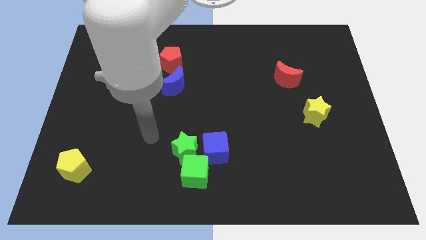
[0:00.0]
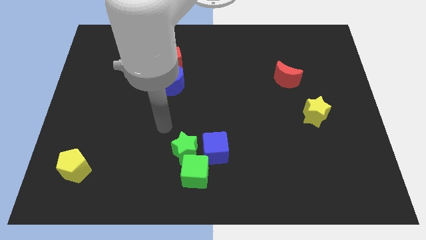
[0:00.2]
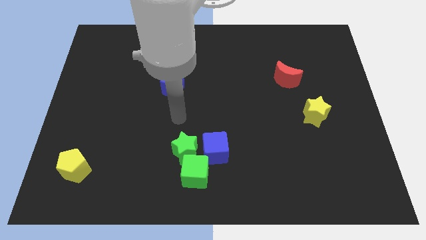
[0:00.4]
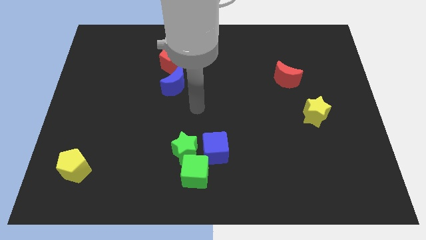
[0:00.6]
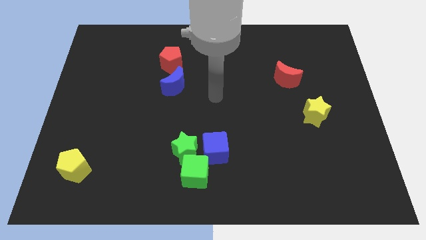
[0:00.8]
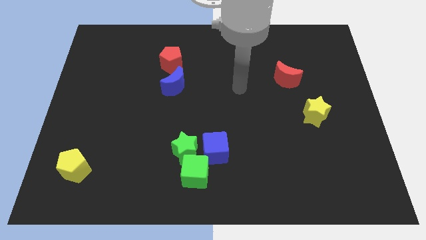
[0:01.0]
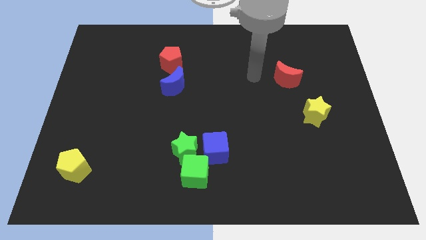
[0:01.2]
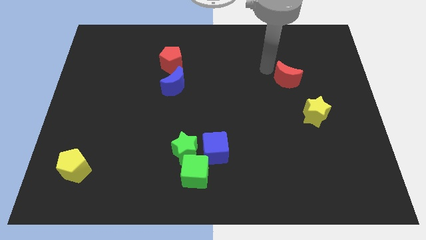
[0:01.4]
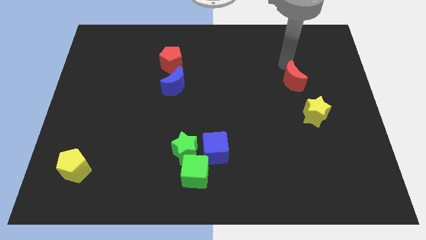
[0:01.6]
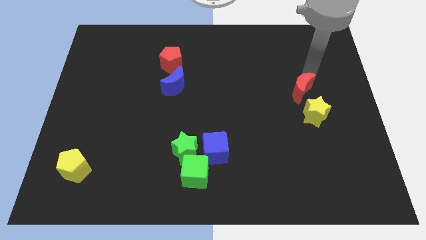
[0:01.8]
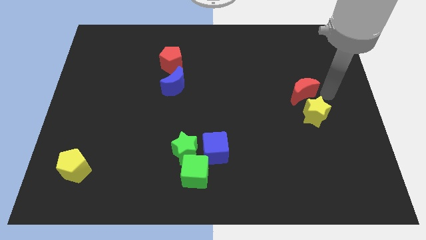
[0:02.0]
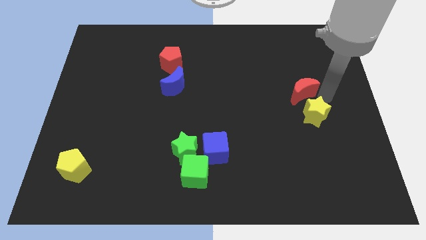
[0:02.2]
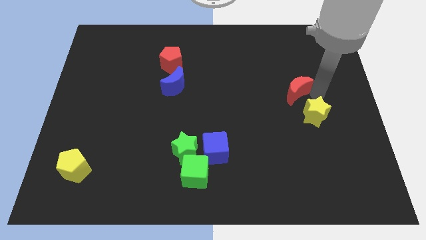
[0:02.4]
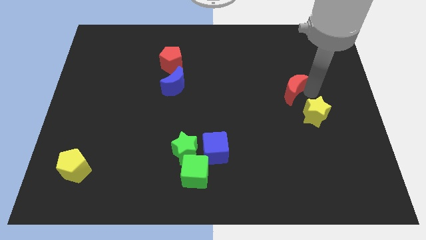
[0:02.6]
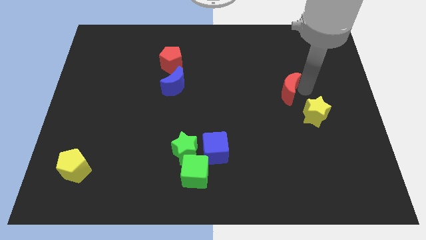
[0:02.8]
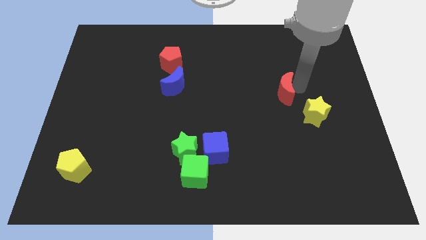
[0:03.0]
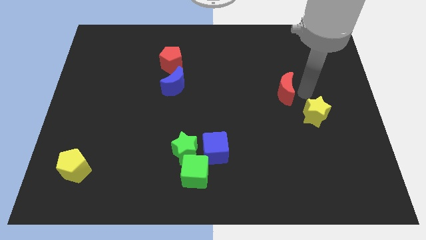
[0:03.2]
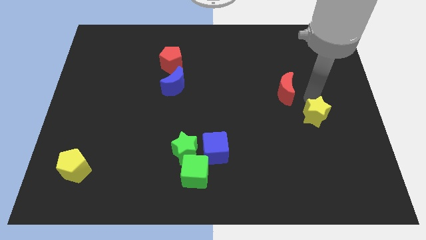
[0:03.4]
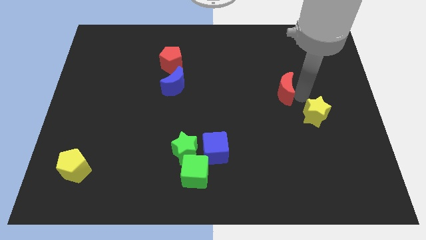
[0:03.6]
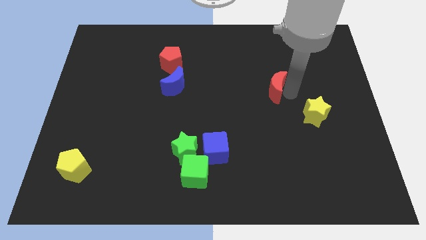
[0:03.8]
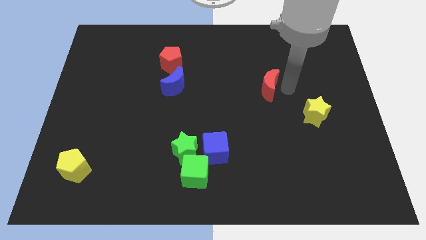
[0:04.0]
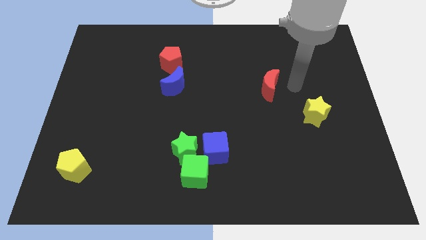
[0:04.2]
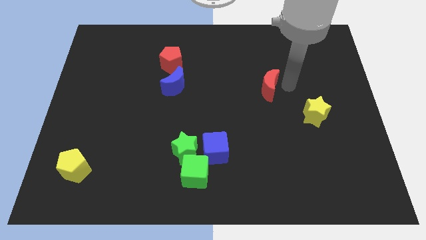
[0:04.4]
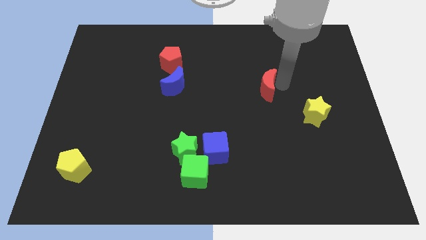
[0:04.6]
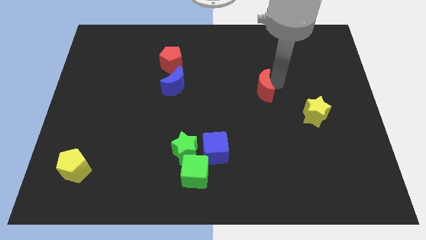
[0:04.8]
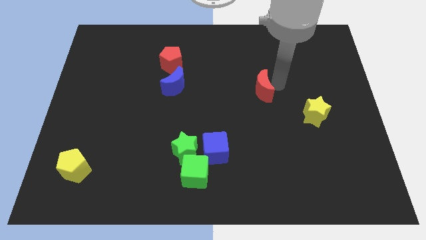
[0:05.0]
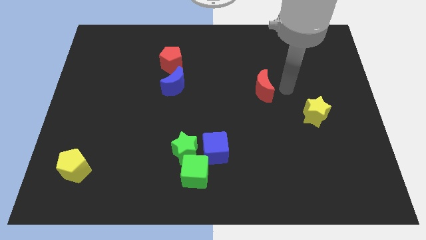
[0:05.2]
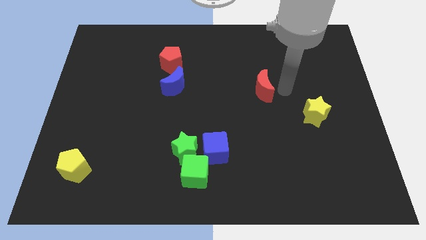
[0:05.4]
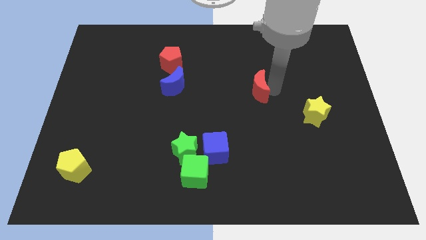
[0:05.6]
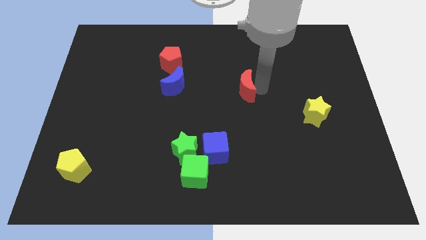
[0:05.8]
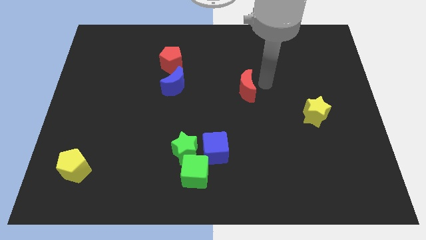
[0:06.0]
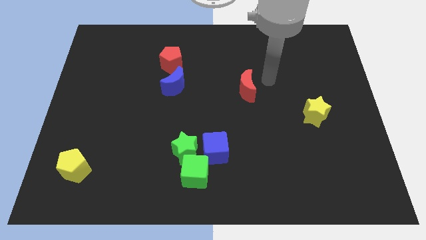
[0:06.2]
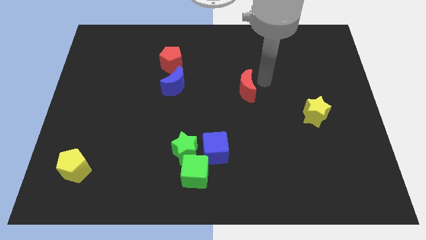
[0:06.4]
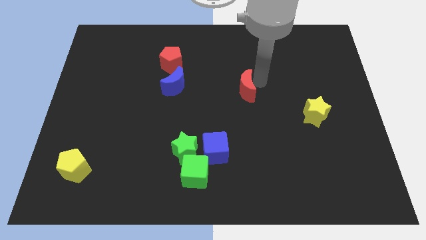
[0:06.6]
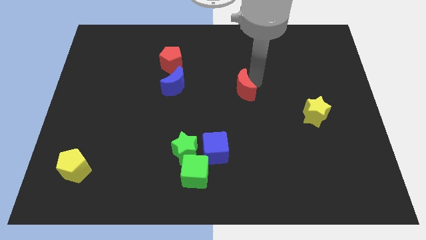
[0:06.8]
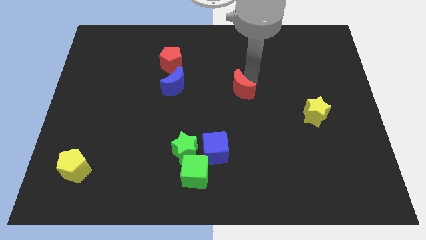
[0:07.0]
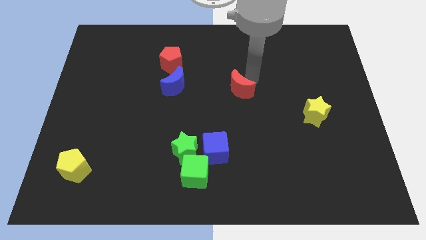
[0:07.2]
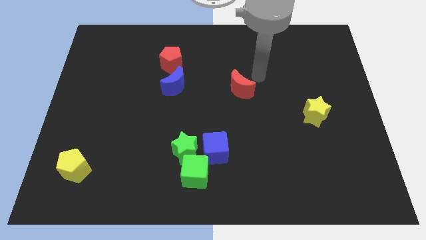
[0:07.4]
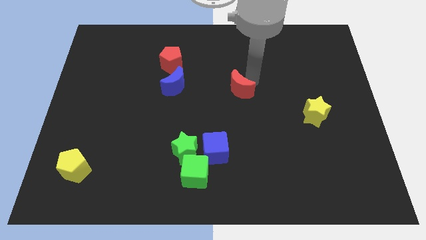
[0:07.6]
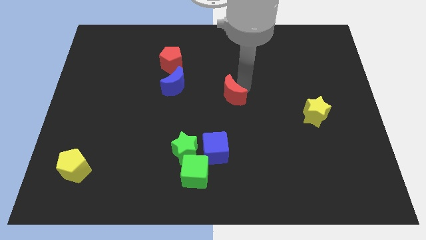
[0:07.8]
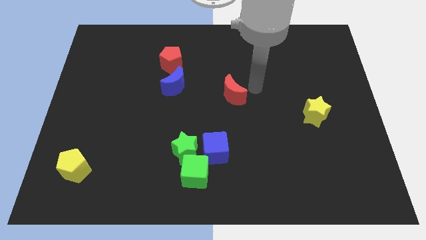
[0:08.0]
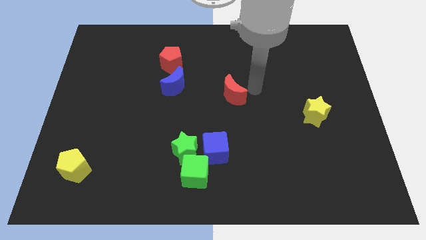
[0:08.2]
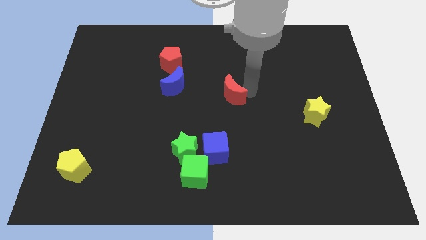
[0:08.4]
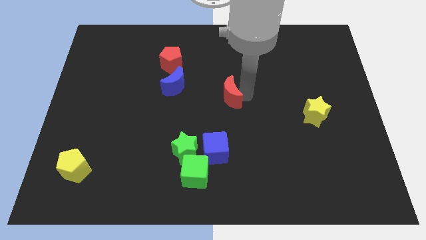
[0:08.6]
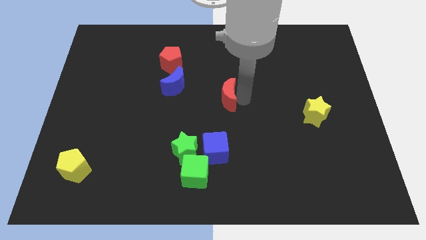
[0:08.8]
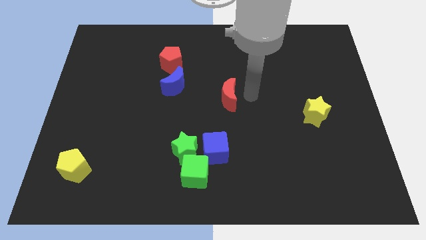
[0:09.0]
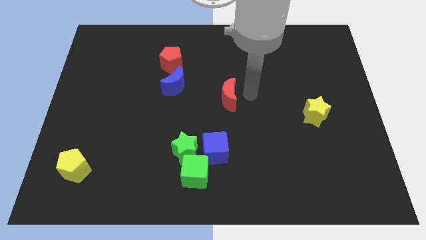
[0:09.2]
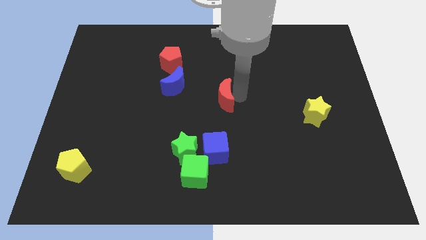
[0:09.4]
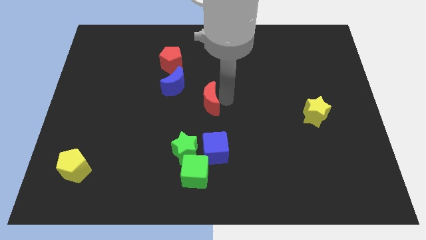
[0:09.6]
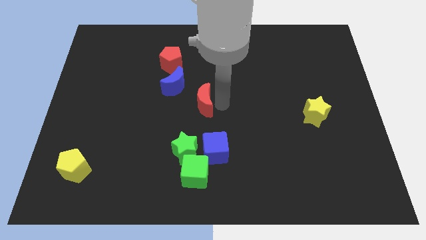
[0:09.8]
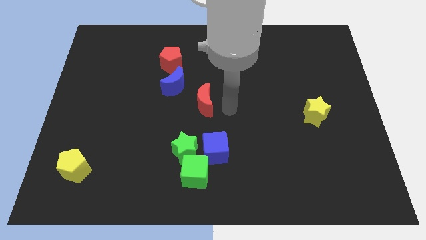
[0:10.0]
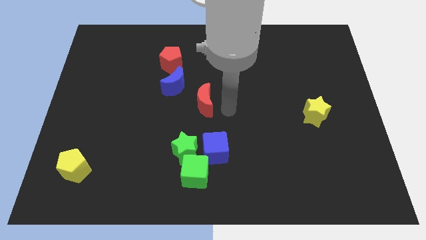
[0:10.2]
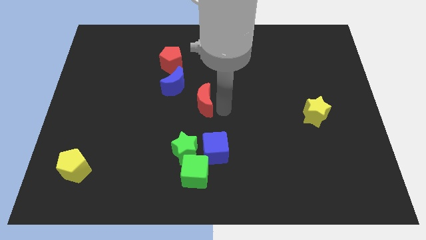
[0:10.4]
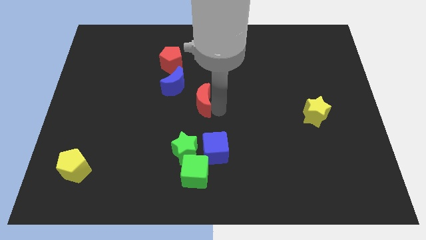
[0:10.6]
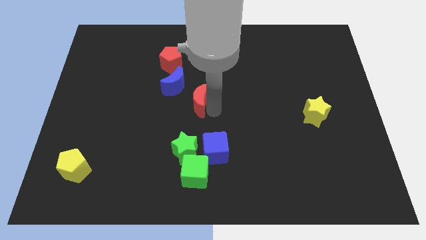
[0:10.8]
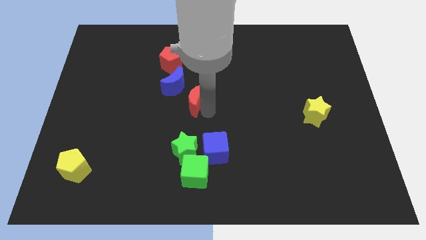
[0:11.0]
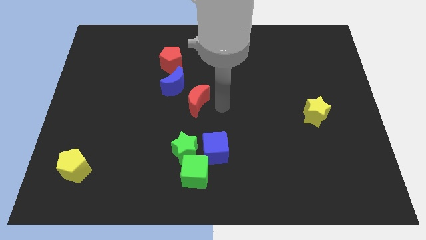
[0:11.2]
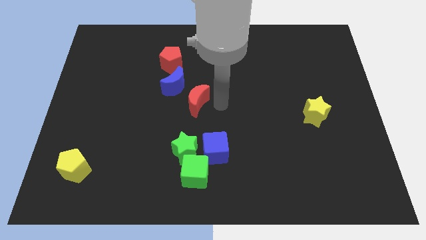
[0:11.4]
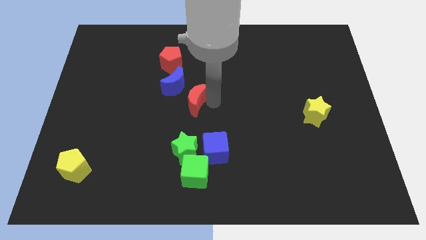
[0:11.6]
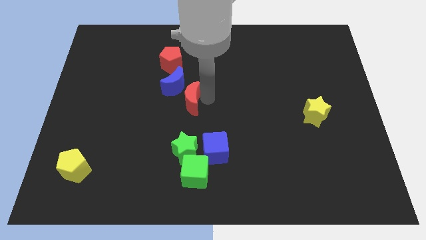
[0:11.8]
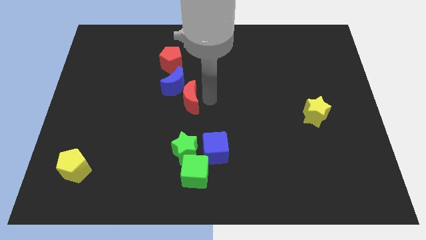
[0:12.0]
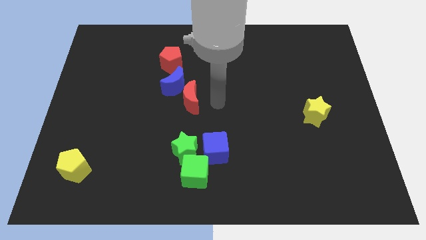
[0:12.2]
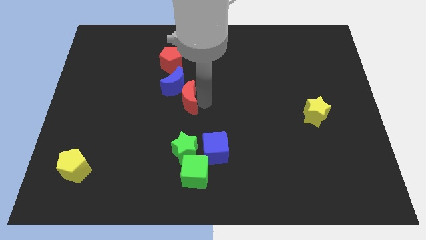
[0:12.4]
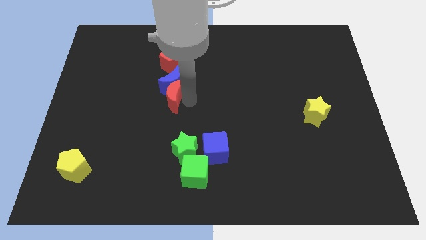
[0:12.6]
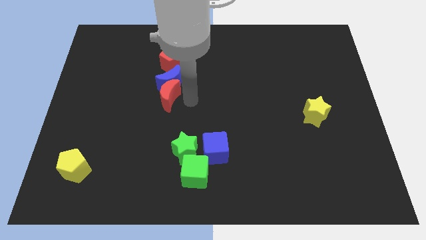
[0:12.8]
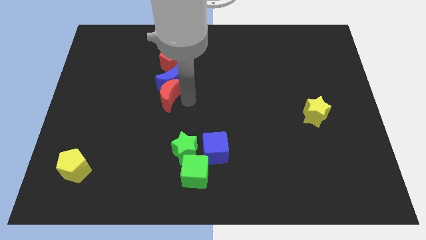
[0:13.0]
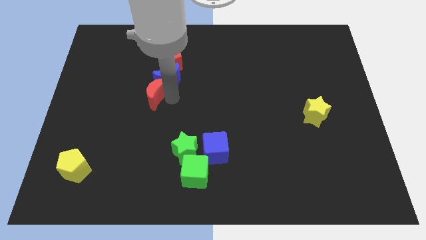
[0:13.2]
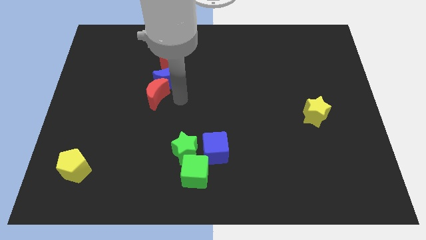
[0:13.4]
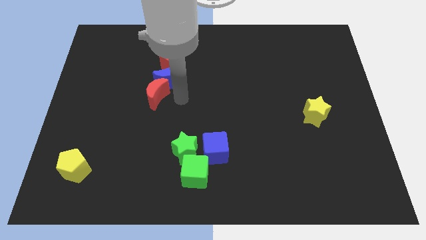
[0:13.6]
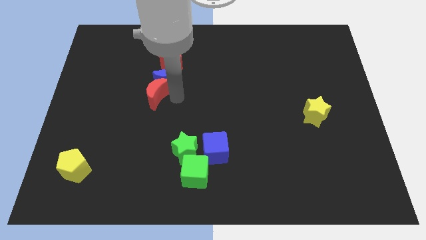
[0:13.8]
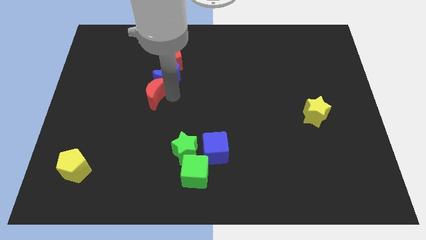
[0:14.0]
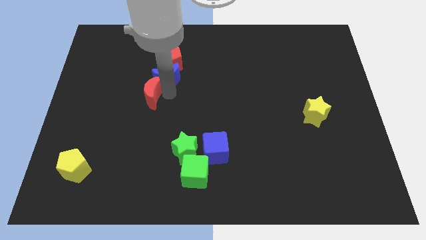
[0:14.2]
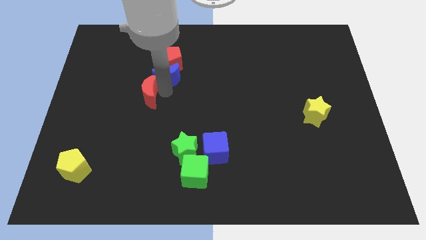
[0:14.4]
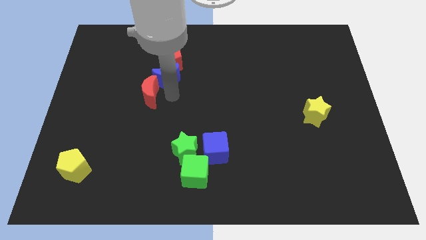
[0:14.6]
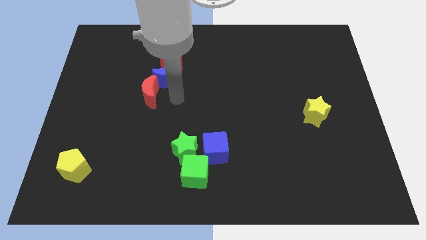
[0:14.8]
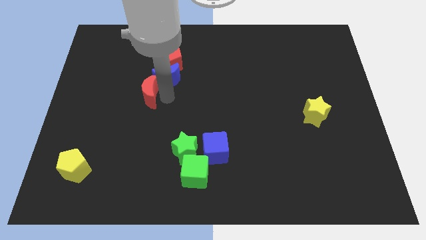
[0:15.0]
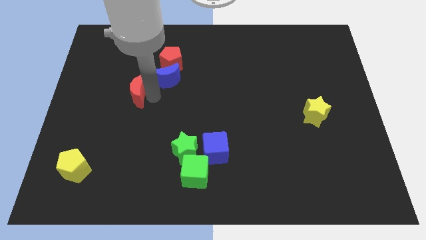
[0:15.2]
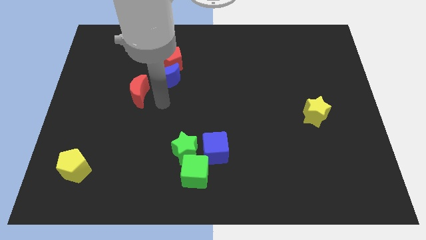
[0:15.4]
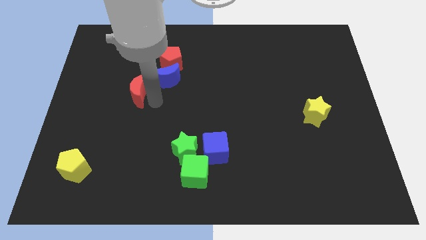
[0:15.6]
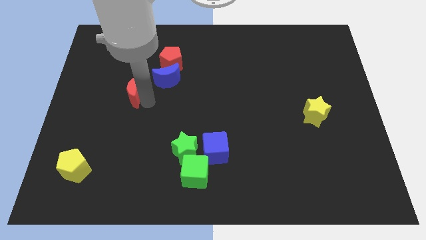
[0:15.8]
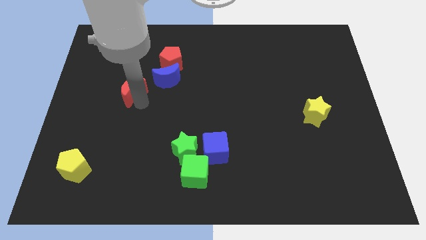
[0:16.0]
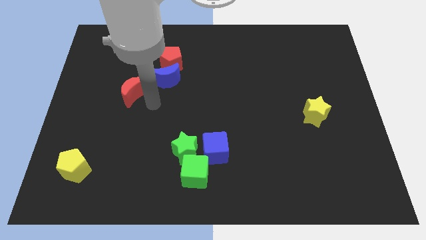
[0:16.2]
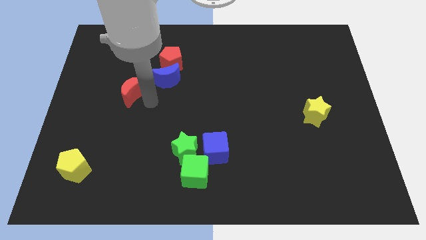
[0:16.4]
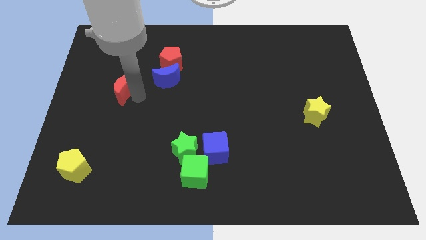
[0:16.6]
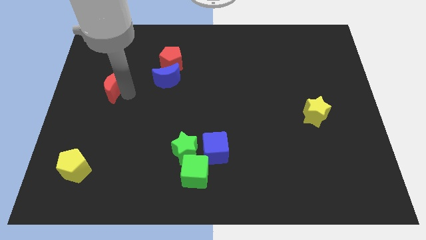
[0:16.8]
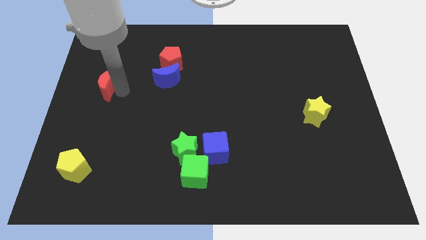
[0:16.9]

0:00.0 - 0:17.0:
push the red moon to the left side
